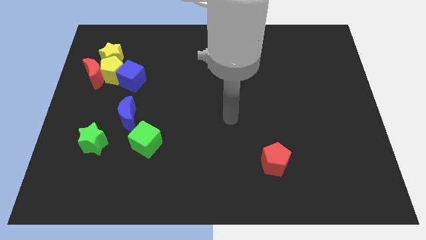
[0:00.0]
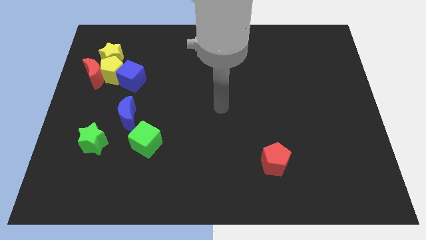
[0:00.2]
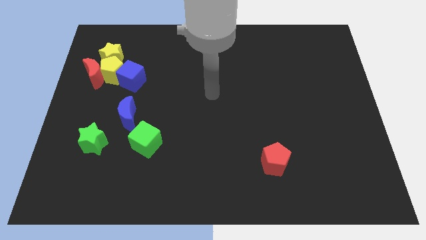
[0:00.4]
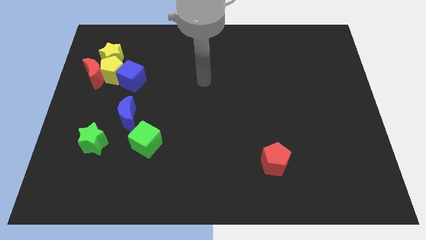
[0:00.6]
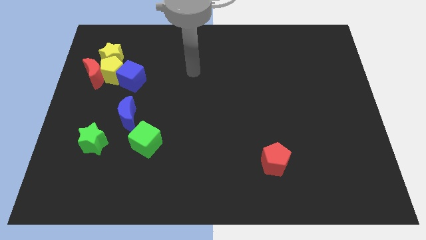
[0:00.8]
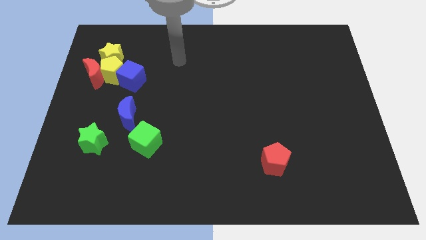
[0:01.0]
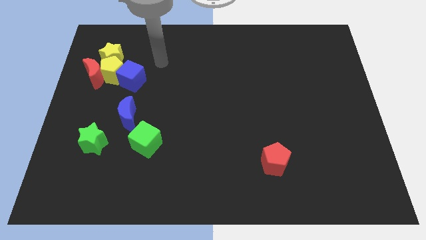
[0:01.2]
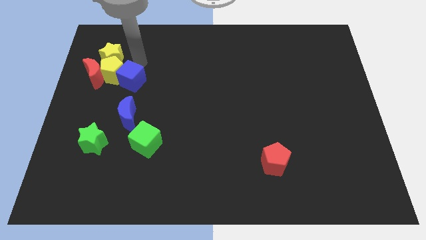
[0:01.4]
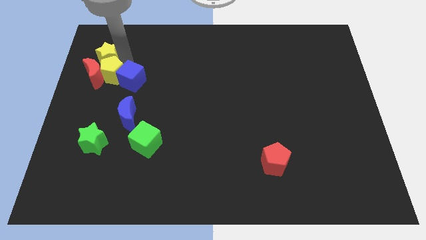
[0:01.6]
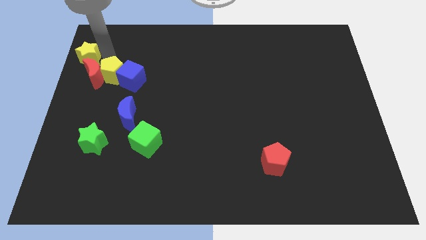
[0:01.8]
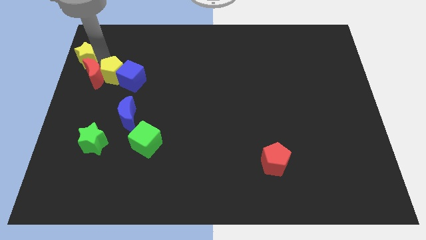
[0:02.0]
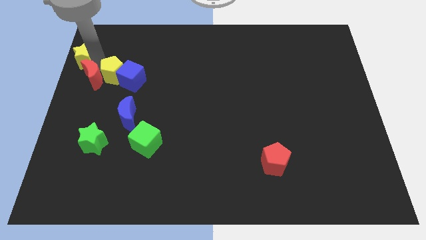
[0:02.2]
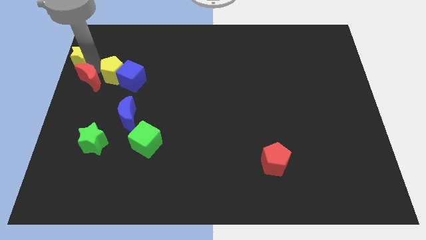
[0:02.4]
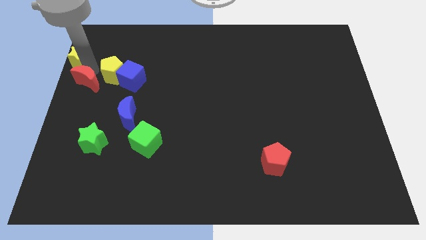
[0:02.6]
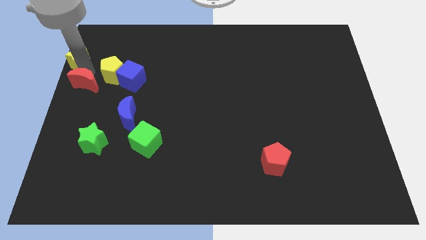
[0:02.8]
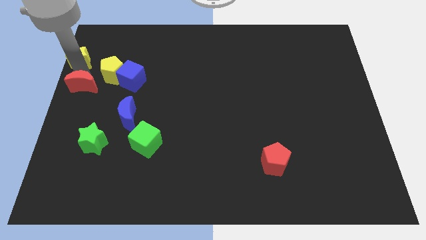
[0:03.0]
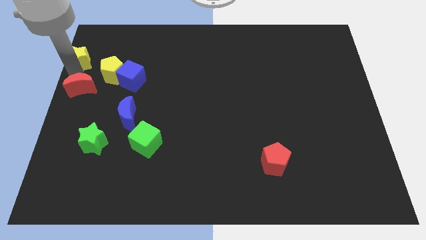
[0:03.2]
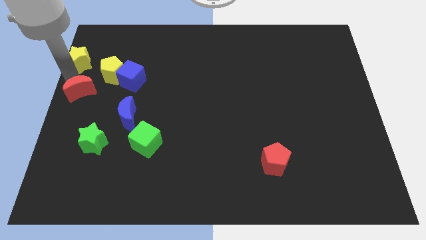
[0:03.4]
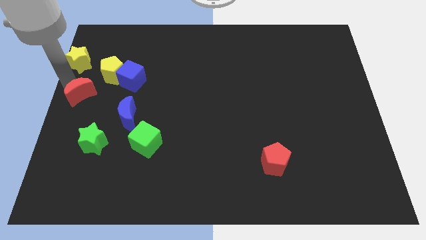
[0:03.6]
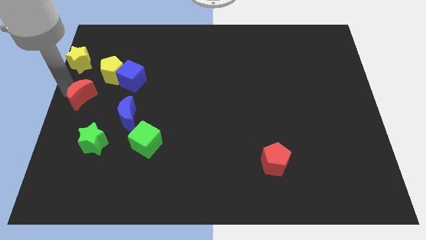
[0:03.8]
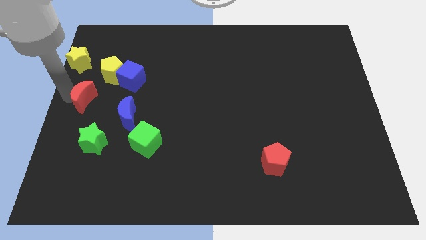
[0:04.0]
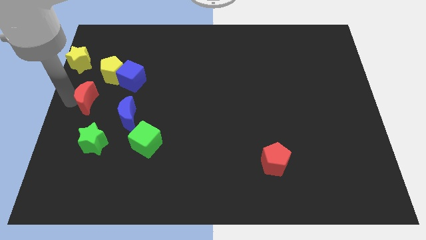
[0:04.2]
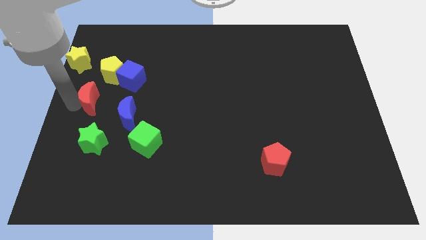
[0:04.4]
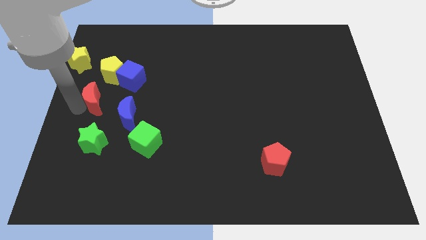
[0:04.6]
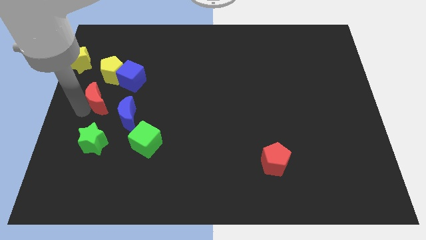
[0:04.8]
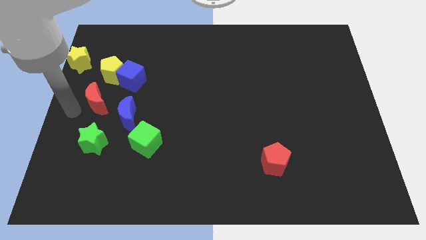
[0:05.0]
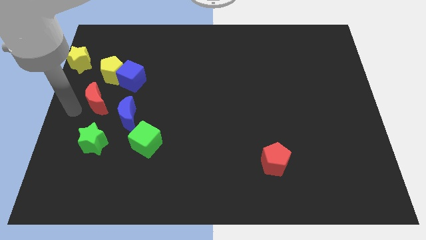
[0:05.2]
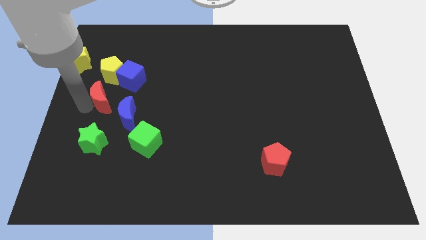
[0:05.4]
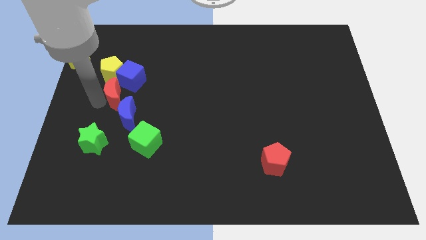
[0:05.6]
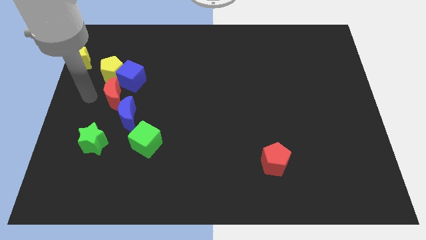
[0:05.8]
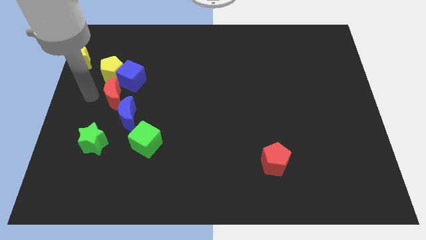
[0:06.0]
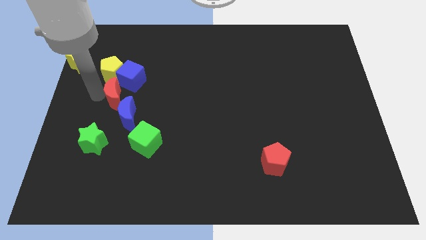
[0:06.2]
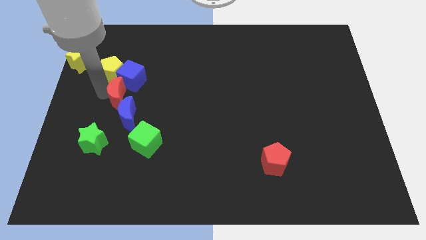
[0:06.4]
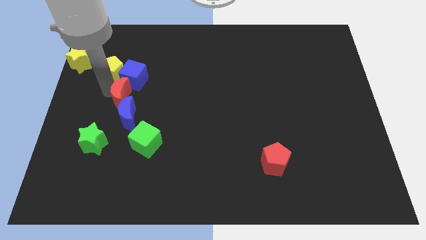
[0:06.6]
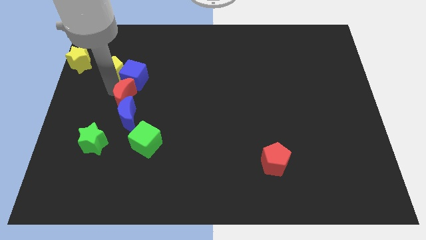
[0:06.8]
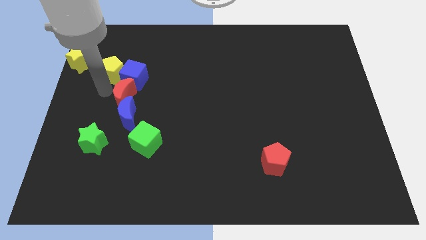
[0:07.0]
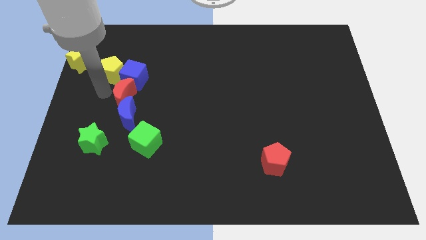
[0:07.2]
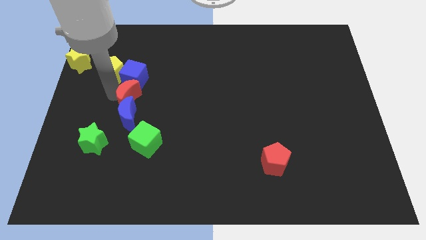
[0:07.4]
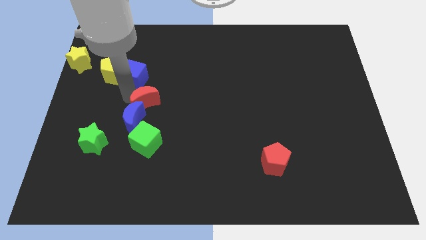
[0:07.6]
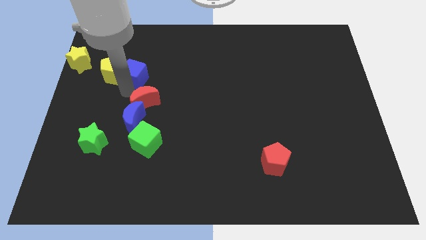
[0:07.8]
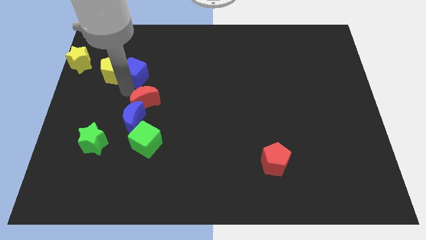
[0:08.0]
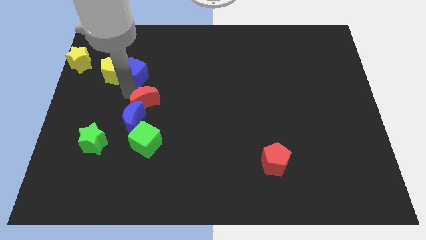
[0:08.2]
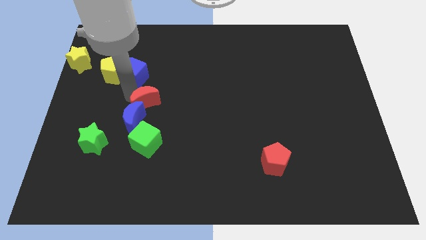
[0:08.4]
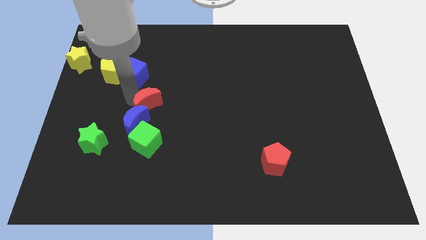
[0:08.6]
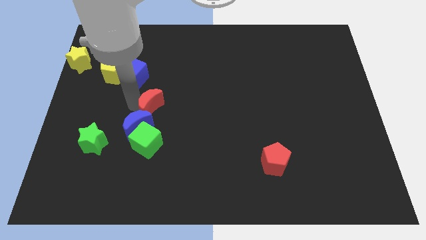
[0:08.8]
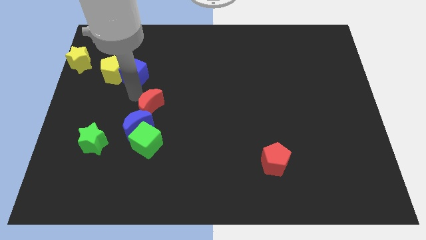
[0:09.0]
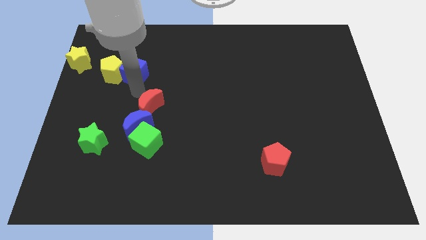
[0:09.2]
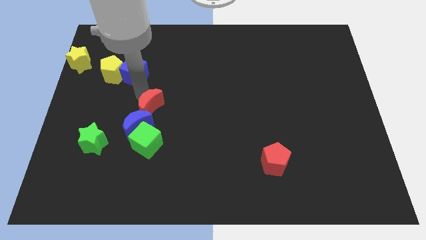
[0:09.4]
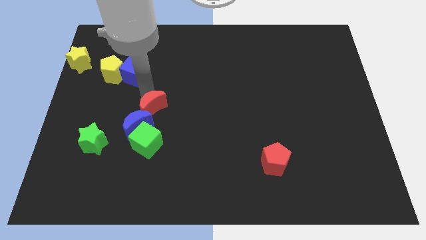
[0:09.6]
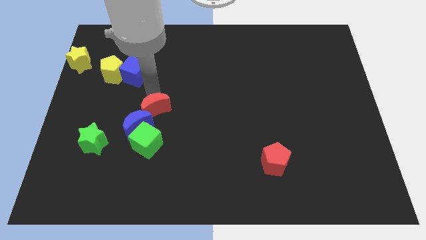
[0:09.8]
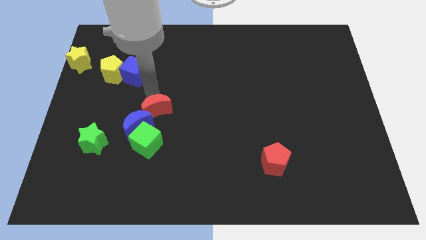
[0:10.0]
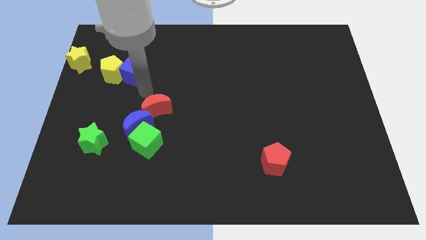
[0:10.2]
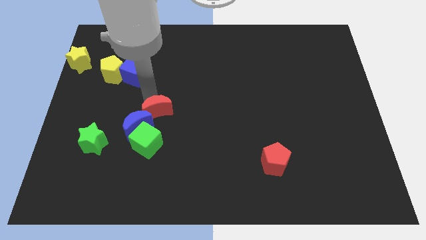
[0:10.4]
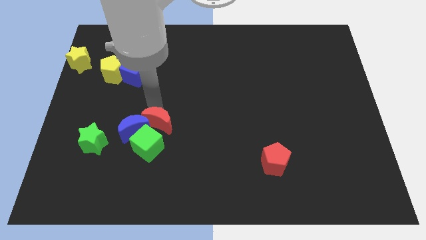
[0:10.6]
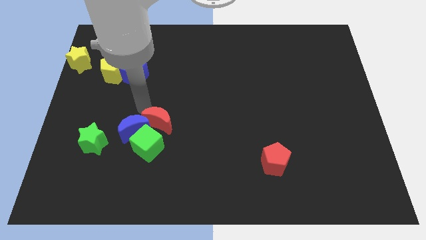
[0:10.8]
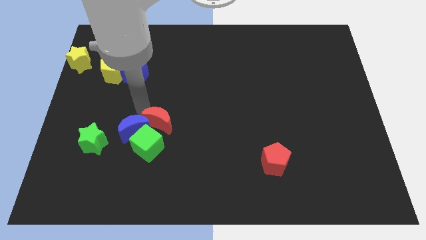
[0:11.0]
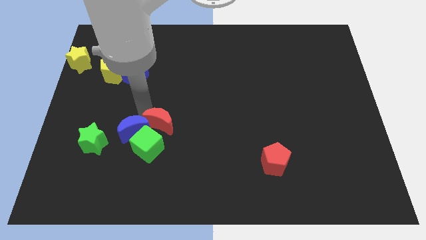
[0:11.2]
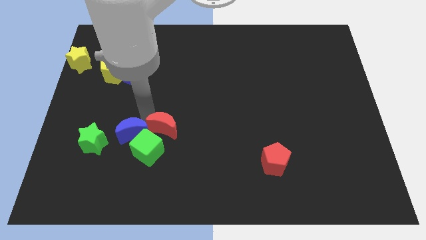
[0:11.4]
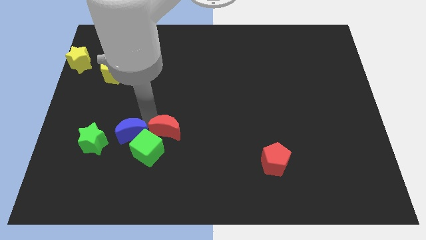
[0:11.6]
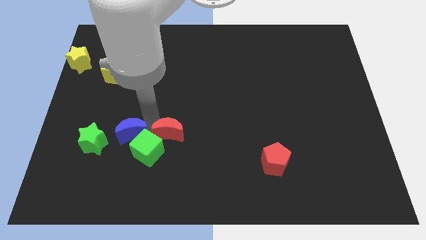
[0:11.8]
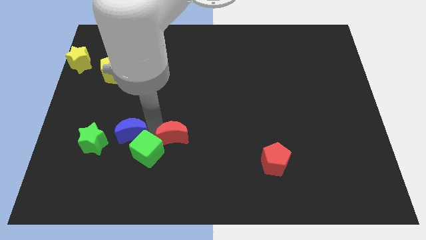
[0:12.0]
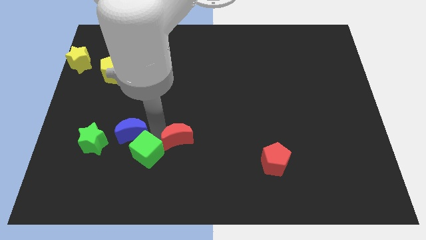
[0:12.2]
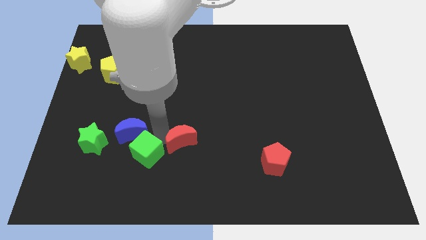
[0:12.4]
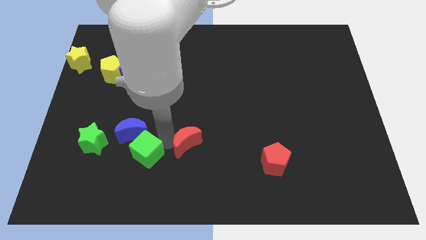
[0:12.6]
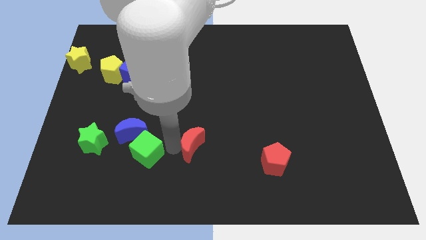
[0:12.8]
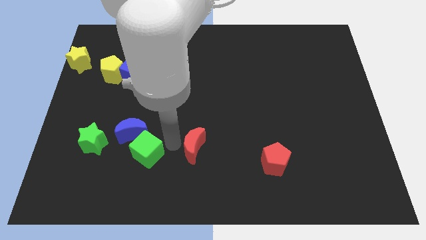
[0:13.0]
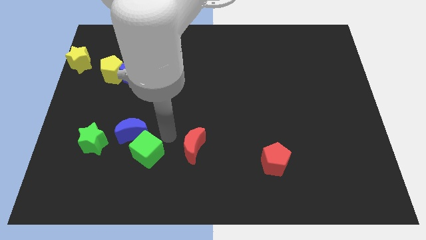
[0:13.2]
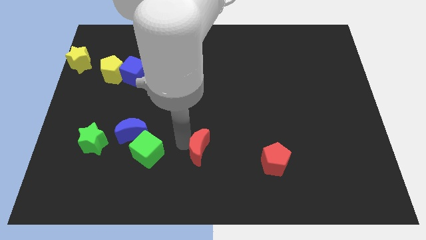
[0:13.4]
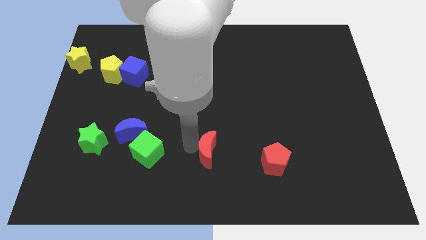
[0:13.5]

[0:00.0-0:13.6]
put the red moon to the left side of the red pentagon
